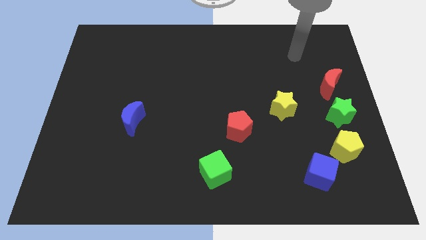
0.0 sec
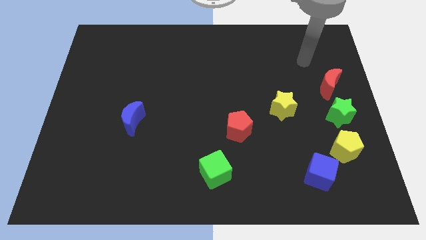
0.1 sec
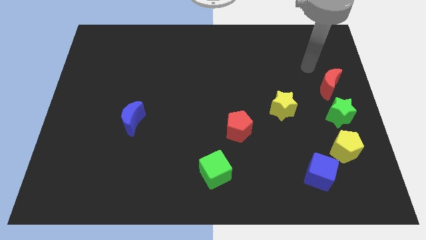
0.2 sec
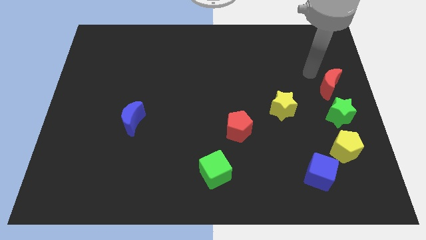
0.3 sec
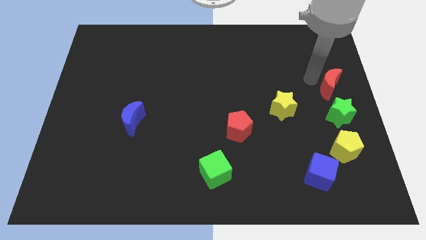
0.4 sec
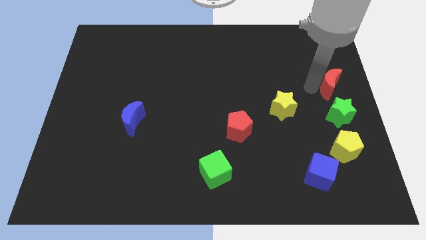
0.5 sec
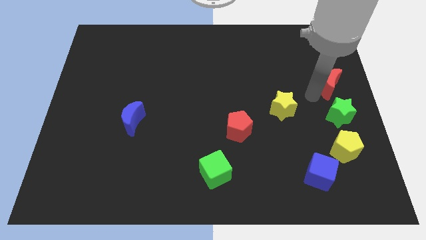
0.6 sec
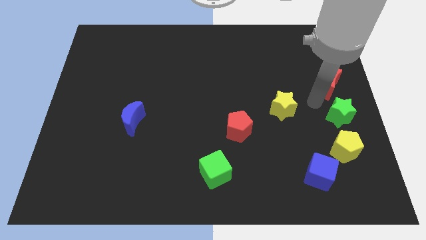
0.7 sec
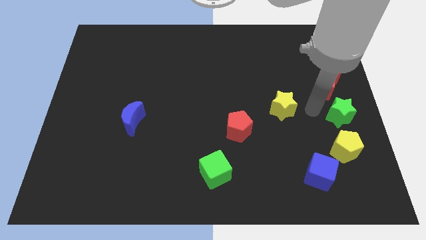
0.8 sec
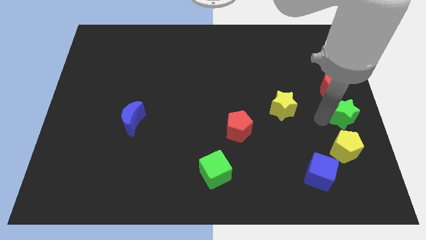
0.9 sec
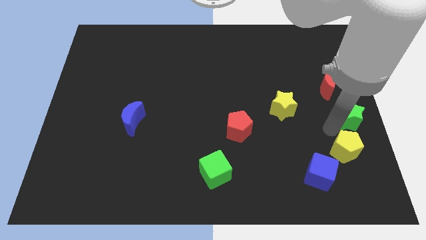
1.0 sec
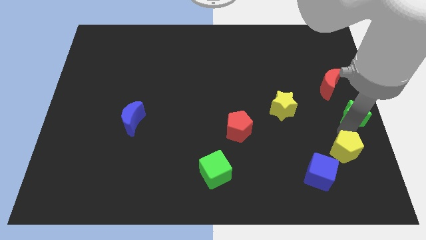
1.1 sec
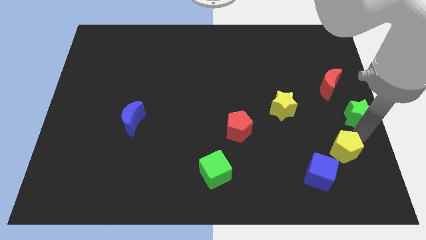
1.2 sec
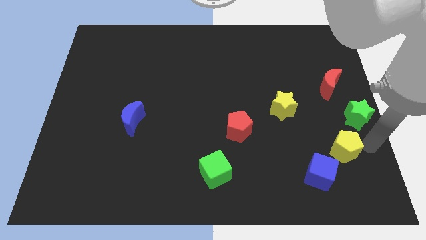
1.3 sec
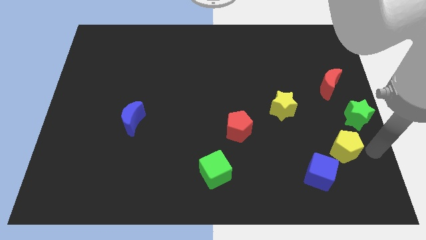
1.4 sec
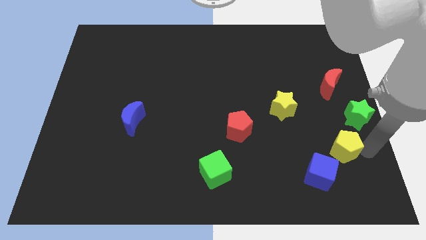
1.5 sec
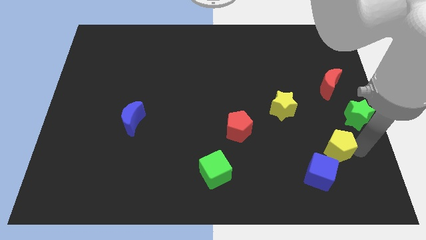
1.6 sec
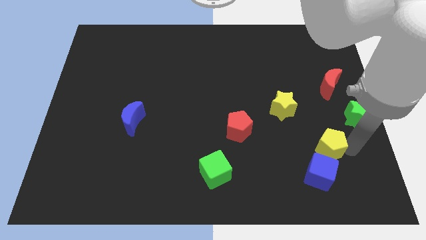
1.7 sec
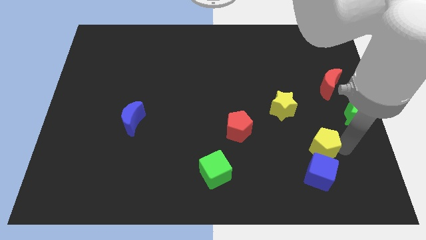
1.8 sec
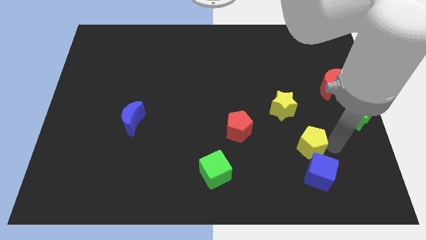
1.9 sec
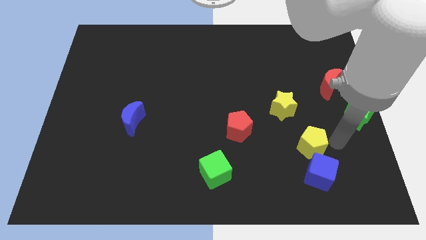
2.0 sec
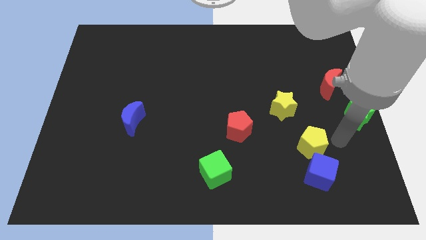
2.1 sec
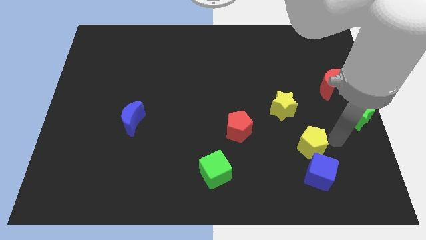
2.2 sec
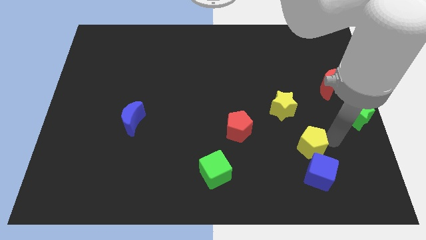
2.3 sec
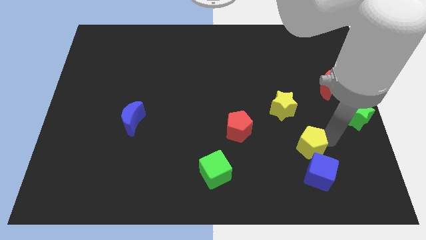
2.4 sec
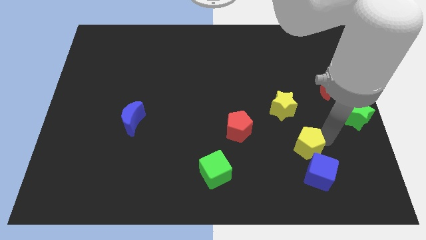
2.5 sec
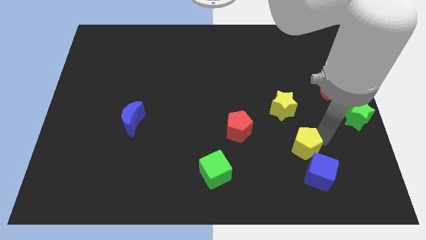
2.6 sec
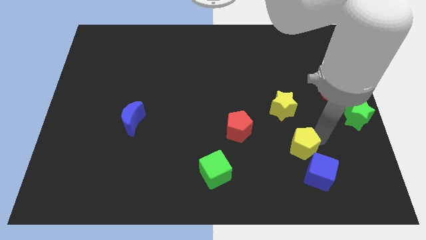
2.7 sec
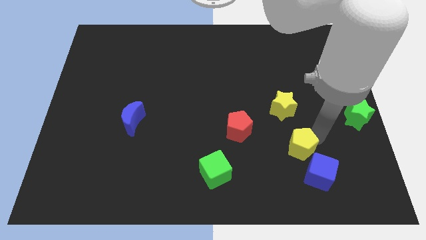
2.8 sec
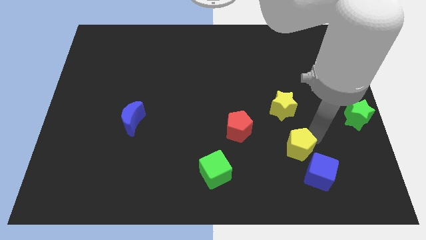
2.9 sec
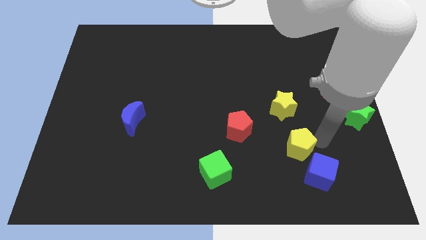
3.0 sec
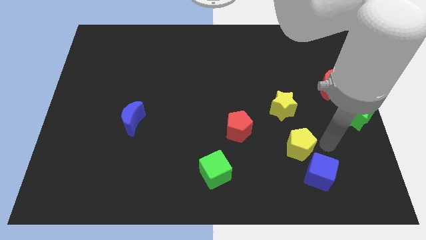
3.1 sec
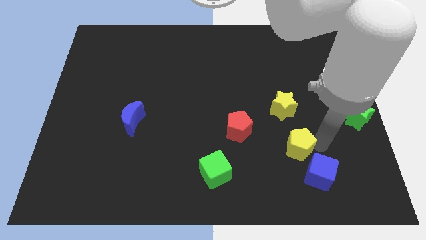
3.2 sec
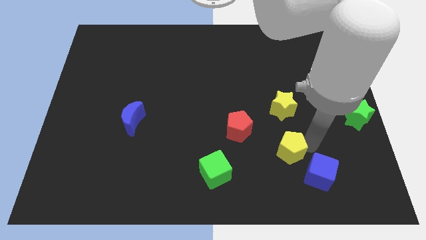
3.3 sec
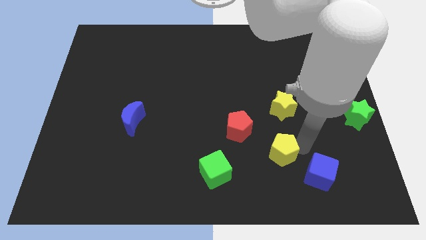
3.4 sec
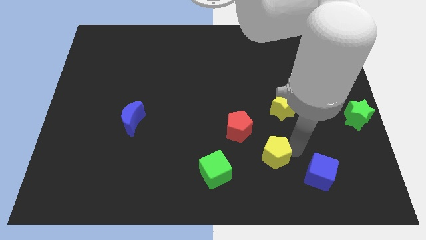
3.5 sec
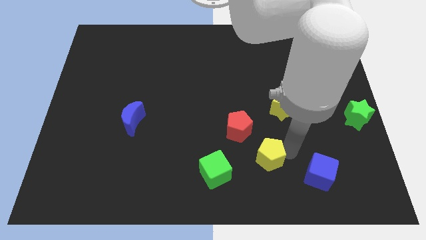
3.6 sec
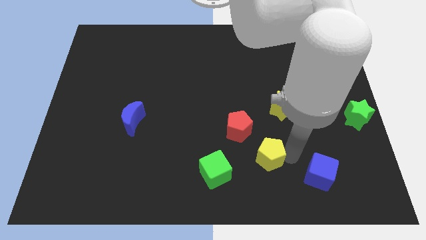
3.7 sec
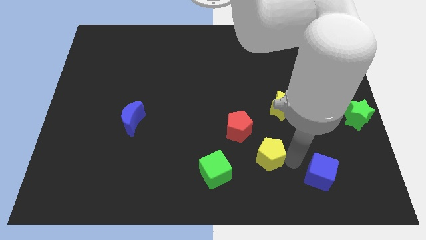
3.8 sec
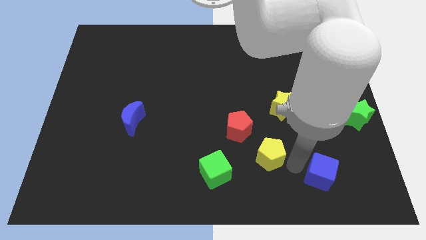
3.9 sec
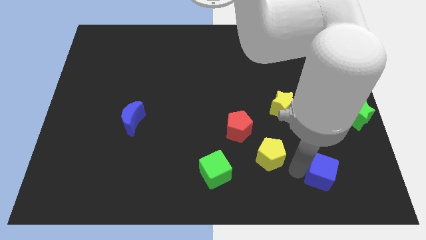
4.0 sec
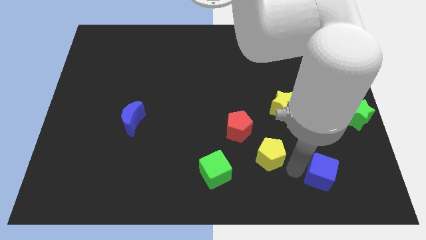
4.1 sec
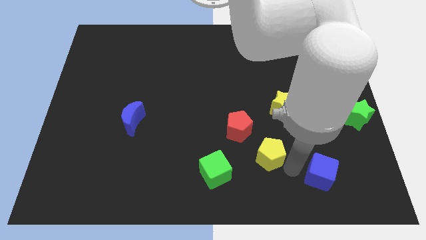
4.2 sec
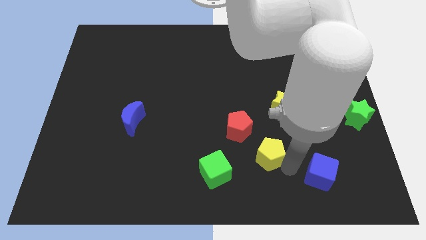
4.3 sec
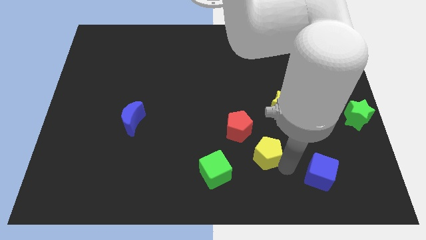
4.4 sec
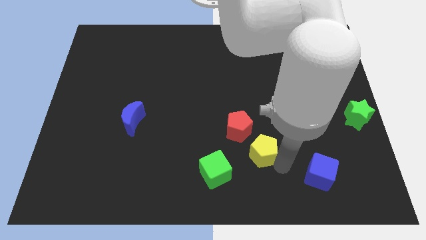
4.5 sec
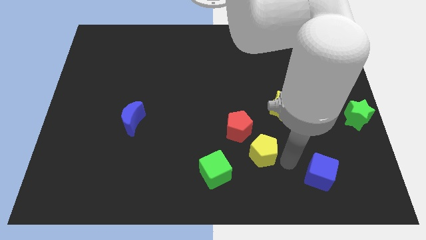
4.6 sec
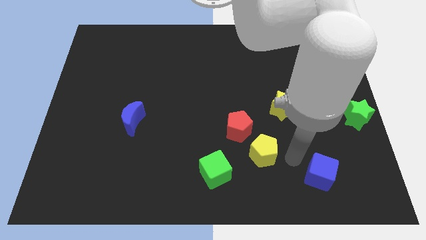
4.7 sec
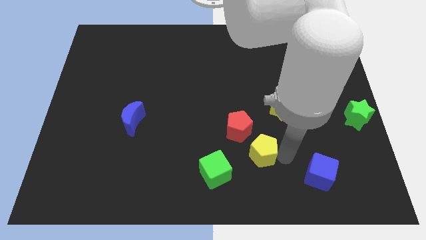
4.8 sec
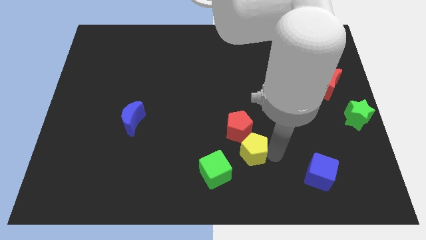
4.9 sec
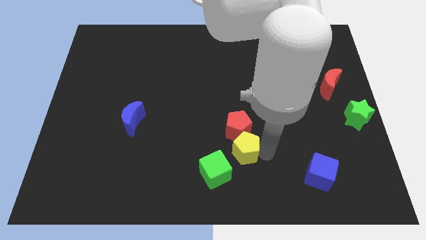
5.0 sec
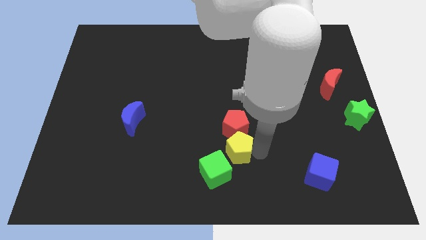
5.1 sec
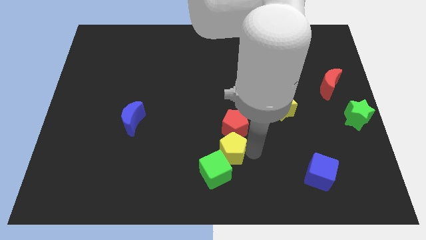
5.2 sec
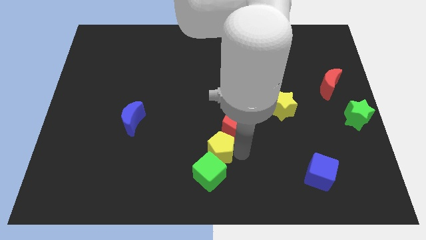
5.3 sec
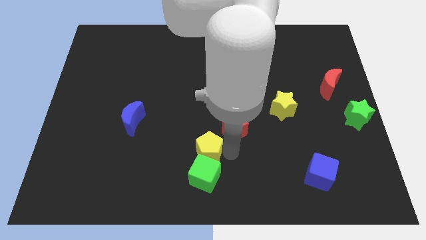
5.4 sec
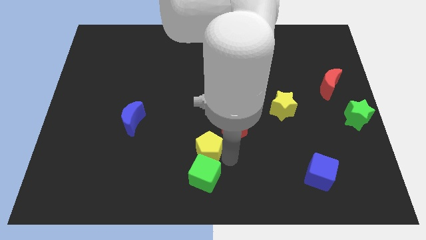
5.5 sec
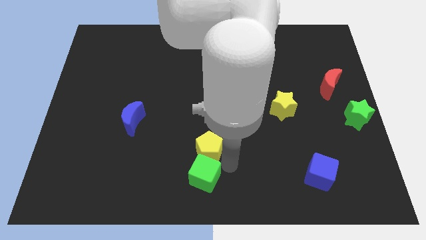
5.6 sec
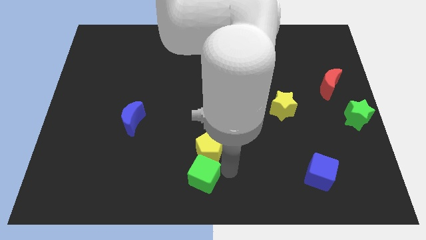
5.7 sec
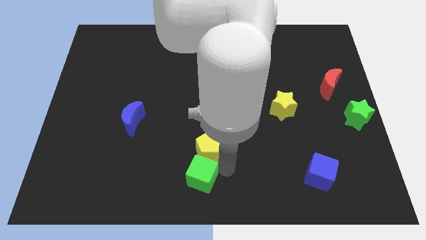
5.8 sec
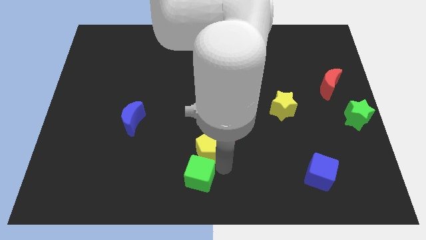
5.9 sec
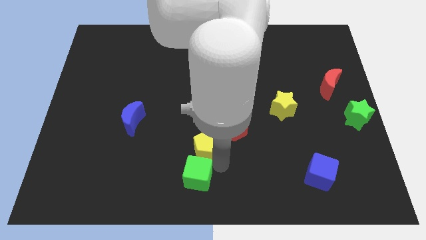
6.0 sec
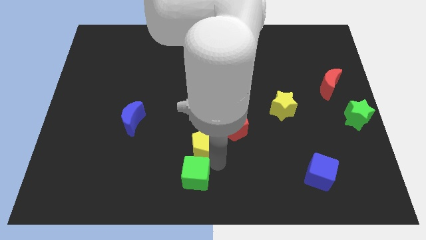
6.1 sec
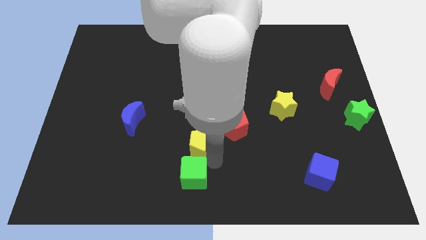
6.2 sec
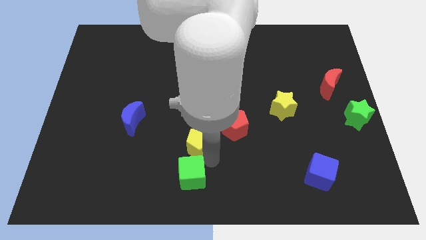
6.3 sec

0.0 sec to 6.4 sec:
move the yellow pentagon left of the red pentagon

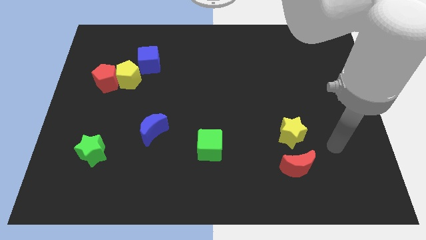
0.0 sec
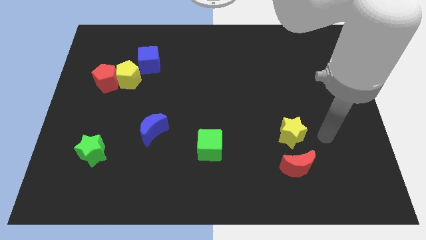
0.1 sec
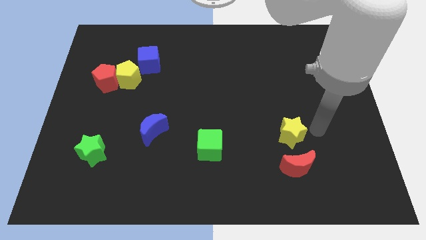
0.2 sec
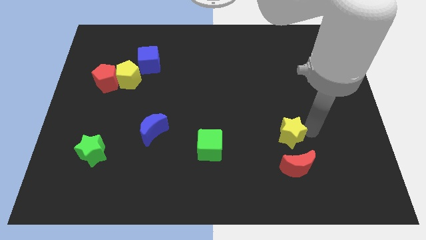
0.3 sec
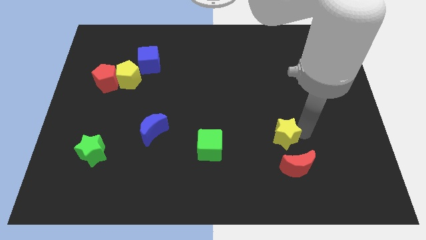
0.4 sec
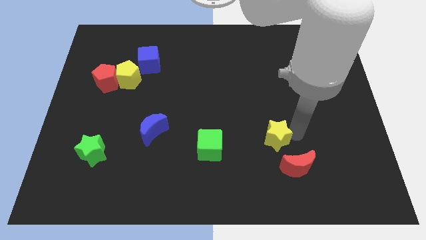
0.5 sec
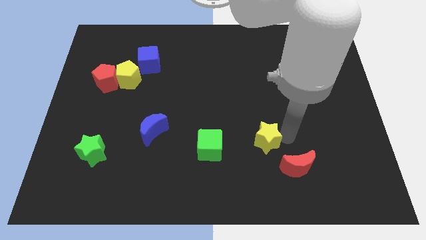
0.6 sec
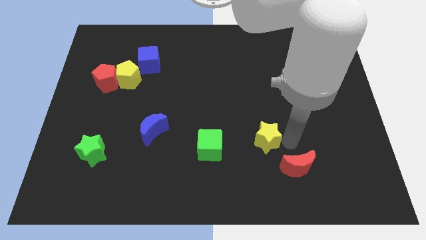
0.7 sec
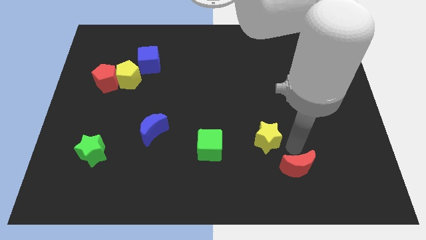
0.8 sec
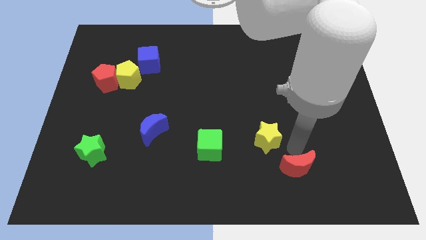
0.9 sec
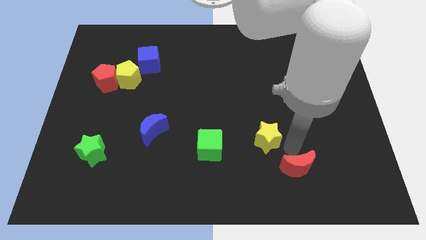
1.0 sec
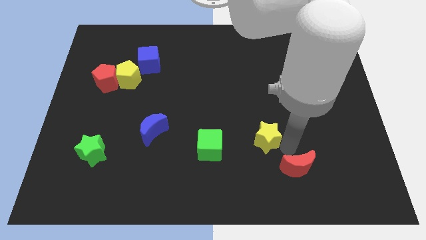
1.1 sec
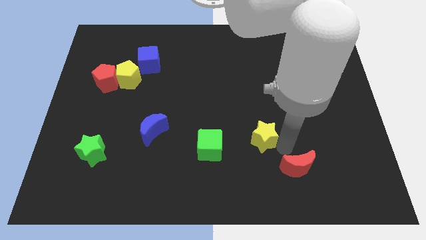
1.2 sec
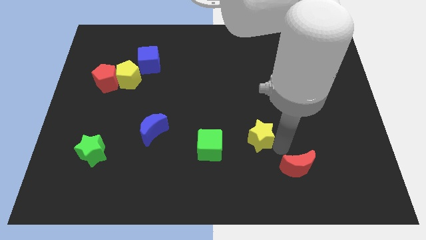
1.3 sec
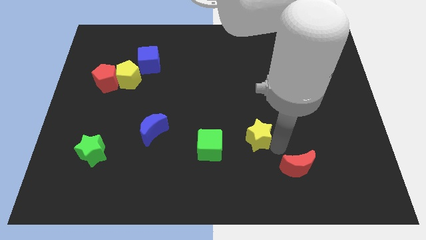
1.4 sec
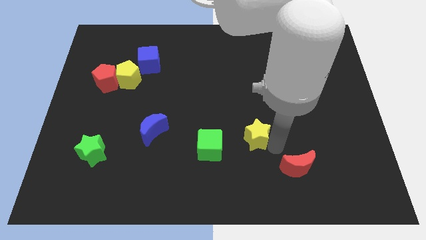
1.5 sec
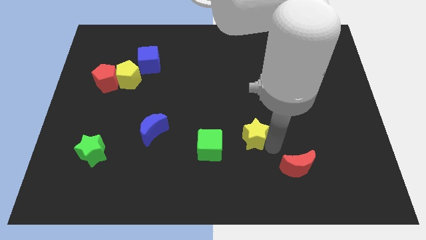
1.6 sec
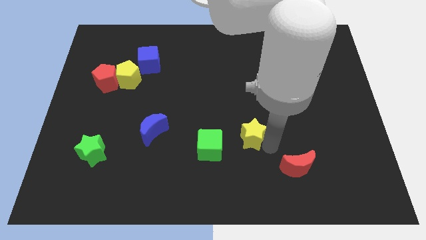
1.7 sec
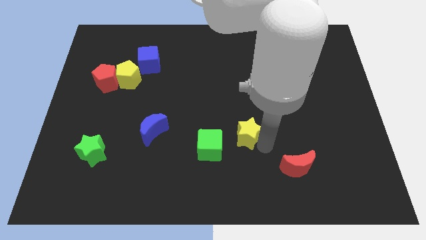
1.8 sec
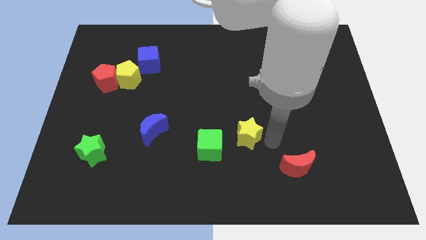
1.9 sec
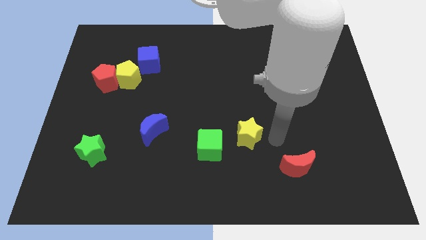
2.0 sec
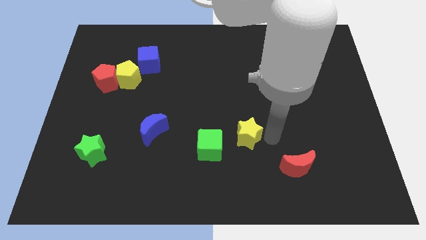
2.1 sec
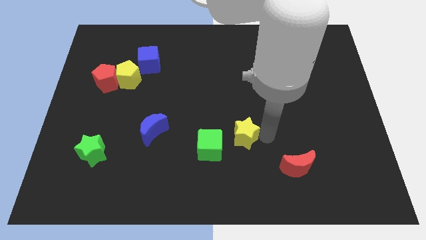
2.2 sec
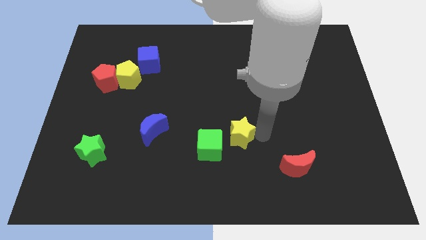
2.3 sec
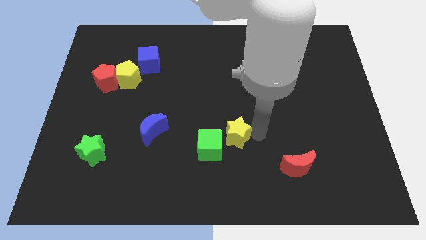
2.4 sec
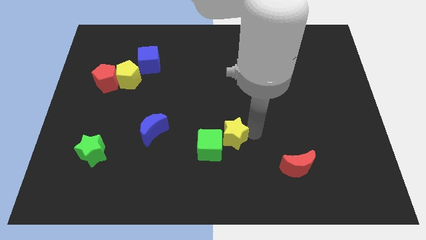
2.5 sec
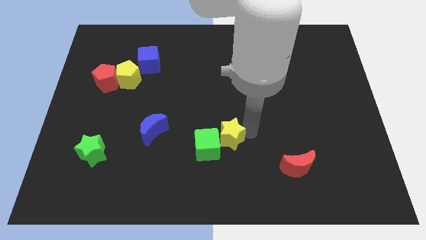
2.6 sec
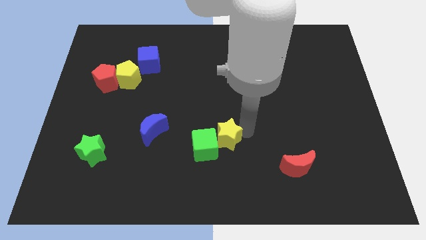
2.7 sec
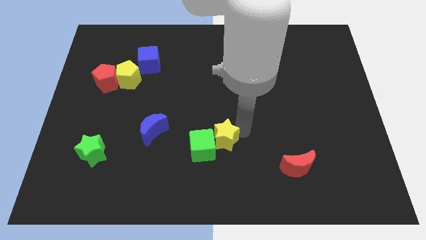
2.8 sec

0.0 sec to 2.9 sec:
slide the yellow star to the right side of the blue moon
